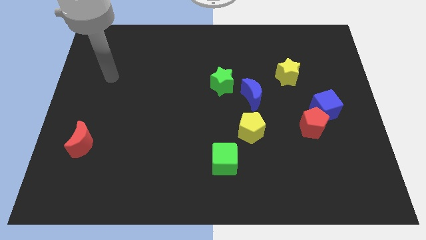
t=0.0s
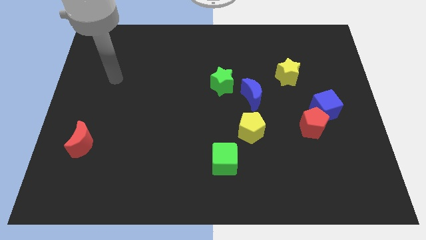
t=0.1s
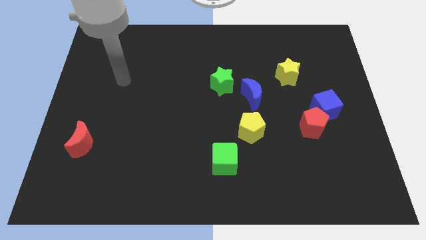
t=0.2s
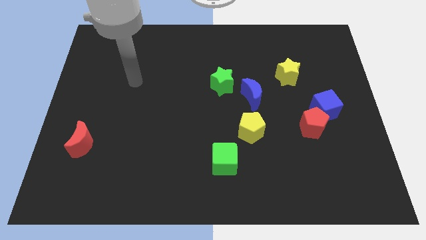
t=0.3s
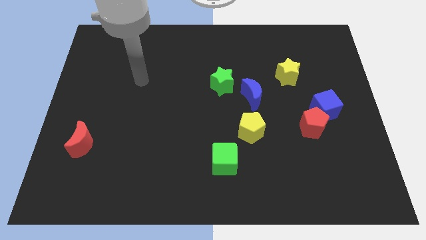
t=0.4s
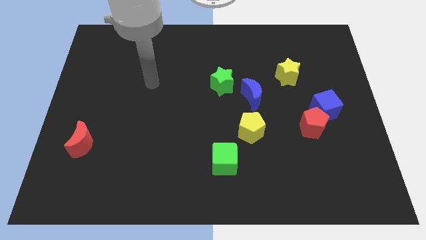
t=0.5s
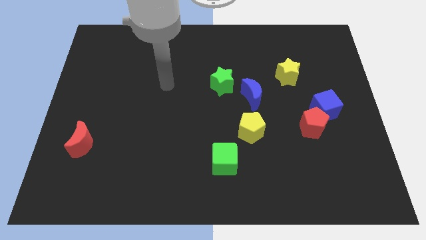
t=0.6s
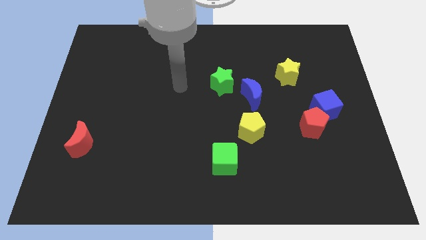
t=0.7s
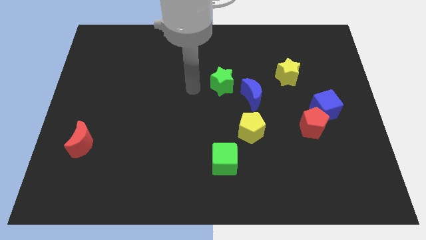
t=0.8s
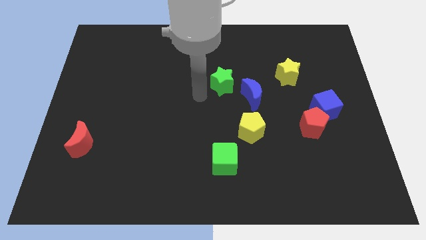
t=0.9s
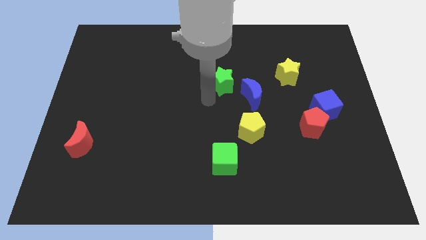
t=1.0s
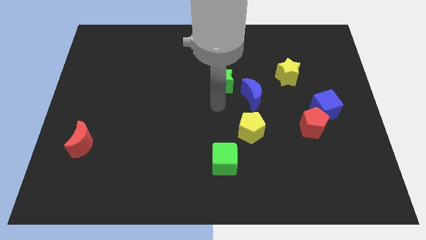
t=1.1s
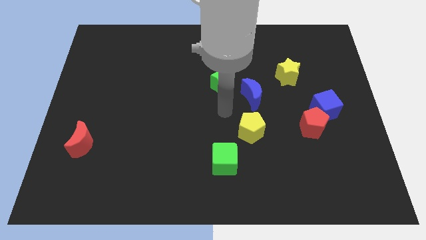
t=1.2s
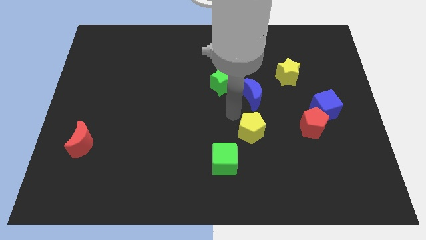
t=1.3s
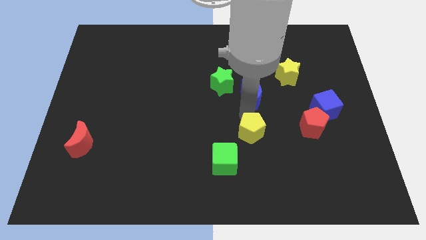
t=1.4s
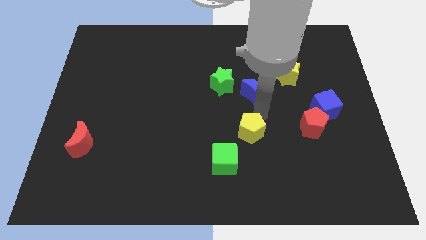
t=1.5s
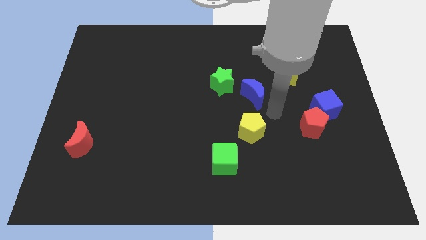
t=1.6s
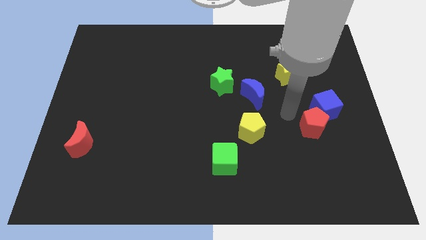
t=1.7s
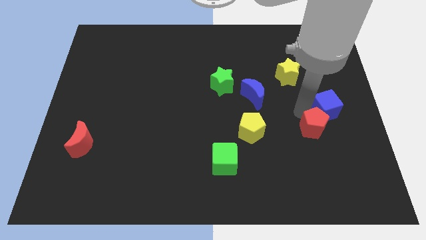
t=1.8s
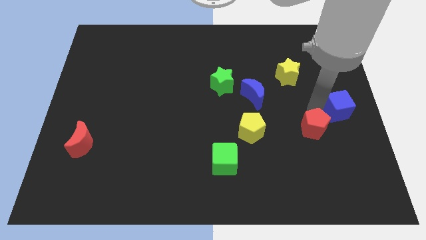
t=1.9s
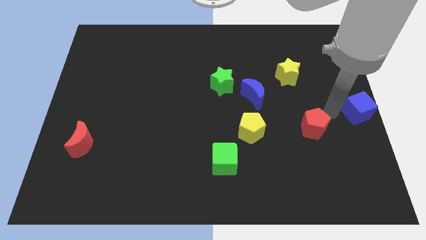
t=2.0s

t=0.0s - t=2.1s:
separate the red pentagon from the blue cube

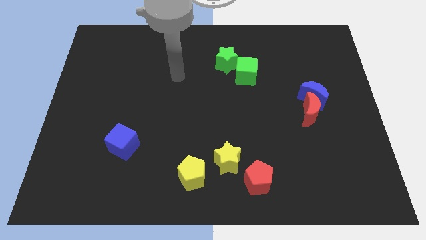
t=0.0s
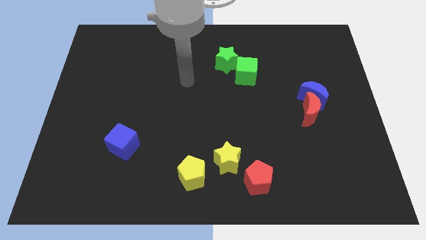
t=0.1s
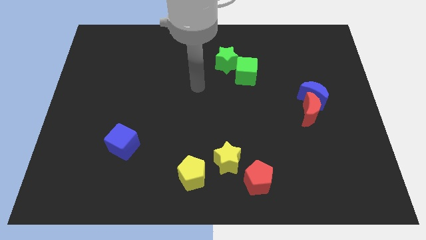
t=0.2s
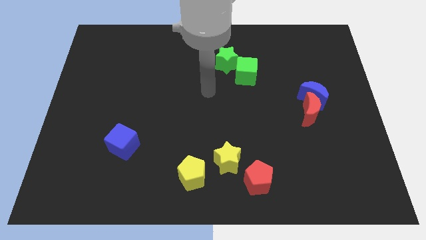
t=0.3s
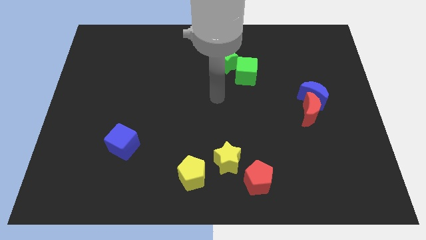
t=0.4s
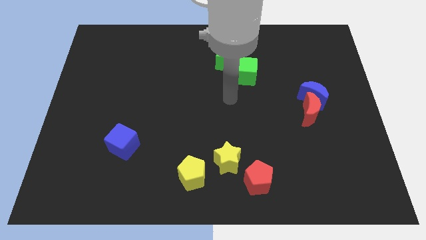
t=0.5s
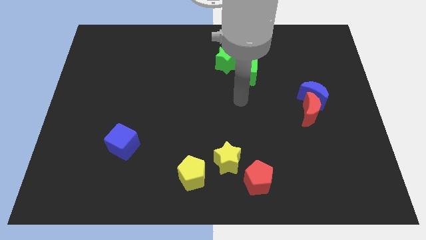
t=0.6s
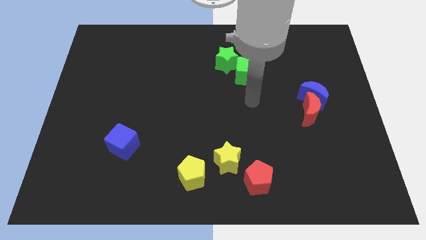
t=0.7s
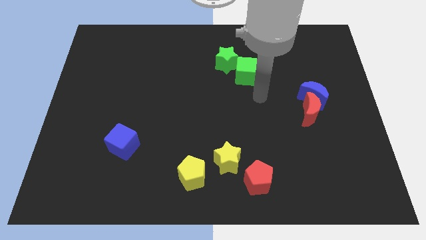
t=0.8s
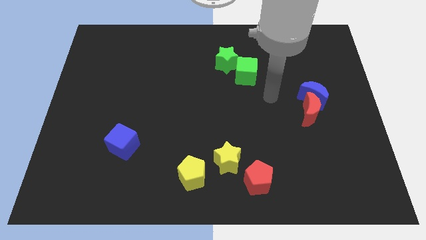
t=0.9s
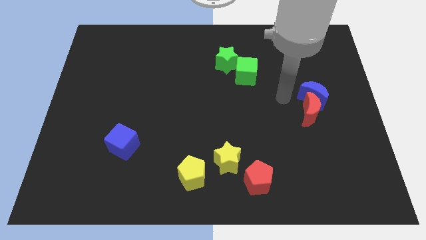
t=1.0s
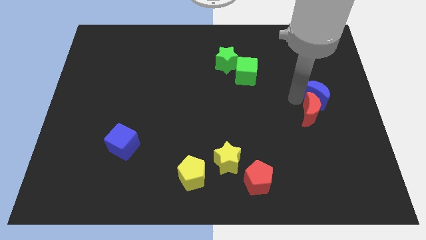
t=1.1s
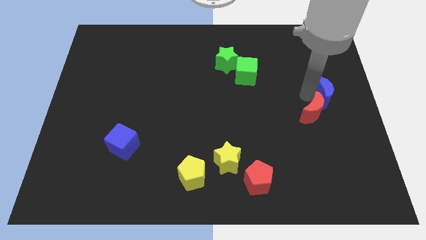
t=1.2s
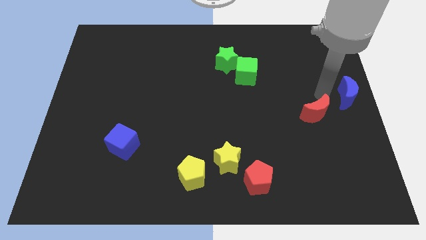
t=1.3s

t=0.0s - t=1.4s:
move the red moon away from the blue moon

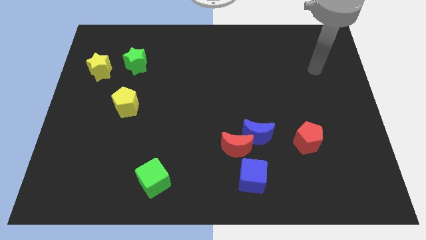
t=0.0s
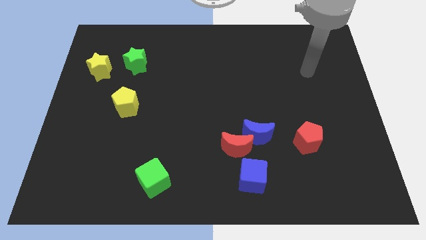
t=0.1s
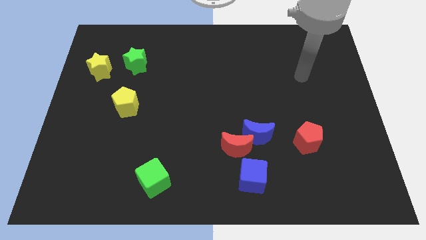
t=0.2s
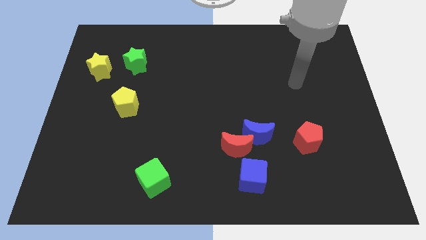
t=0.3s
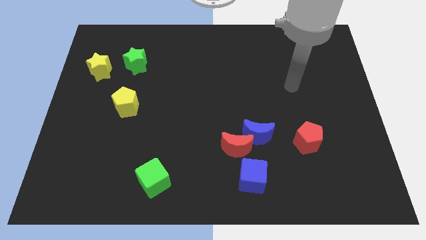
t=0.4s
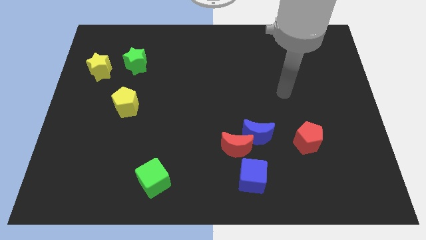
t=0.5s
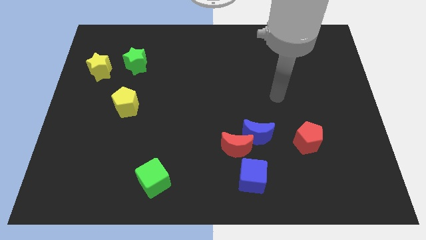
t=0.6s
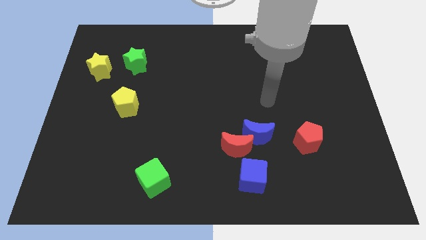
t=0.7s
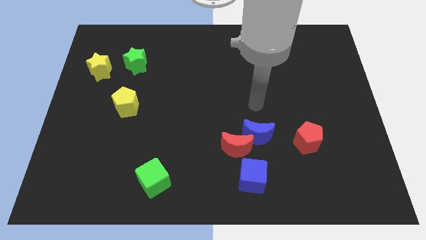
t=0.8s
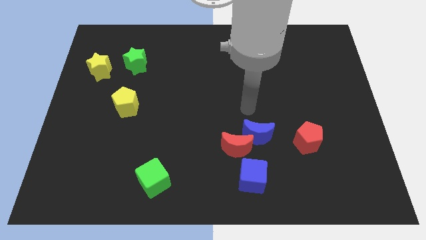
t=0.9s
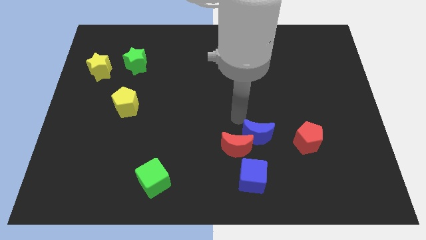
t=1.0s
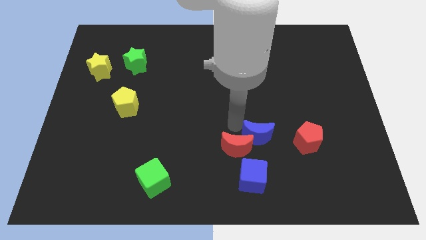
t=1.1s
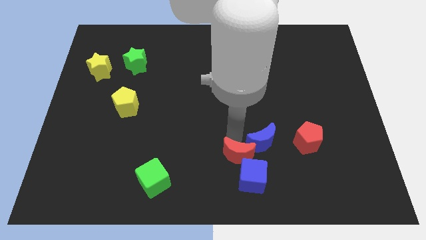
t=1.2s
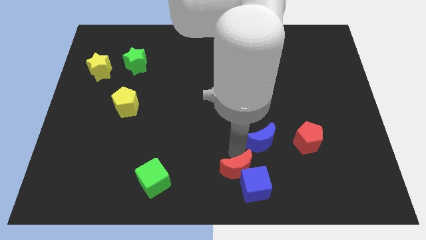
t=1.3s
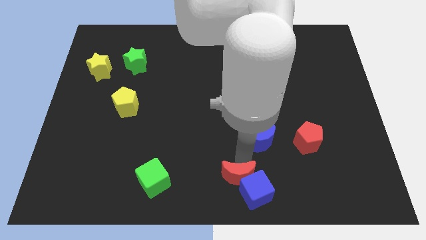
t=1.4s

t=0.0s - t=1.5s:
separate the blue moon from the red moon

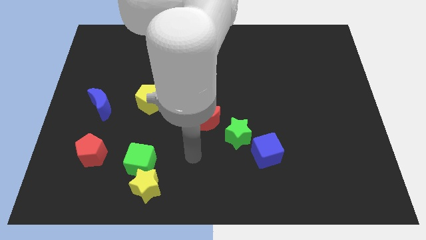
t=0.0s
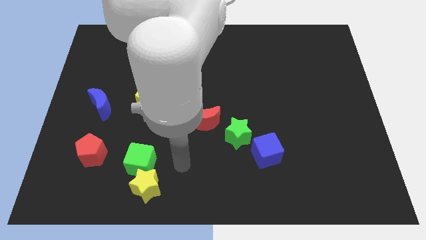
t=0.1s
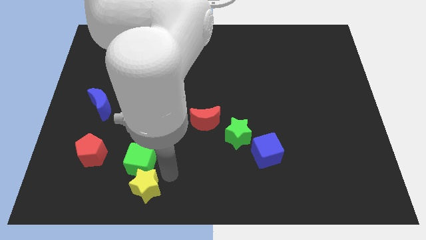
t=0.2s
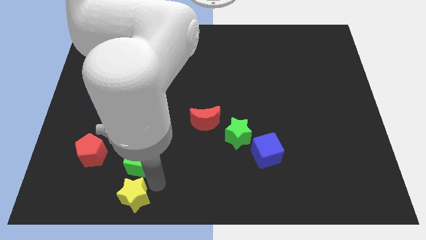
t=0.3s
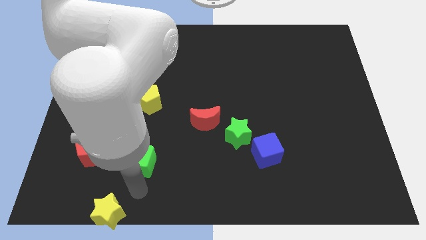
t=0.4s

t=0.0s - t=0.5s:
separate the green cube from the yellow star

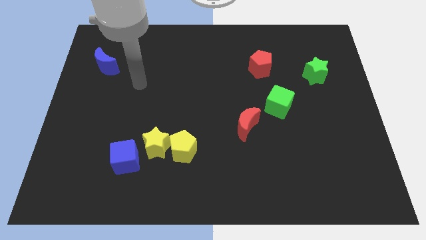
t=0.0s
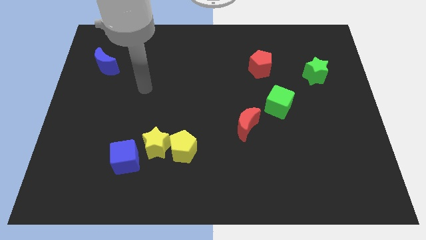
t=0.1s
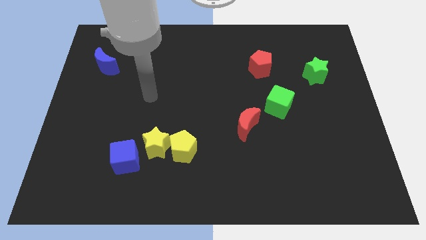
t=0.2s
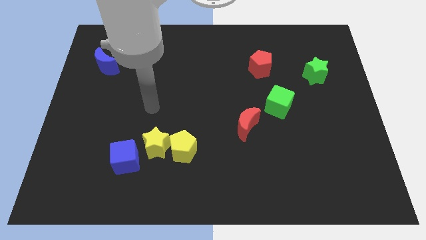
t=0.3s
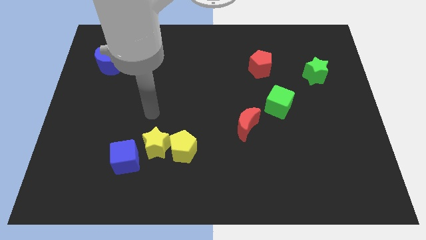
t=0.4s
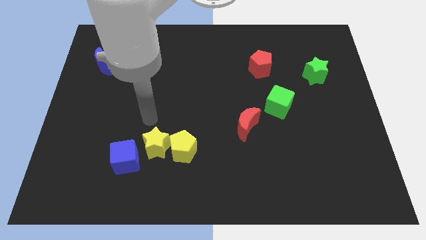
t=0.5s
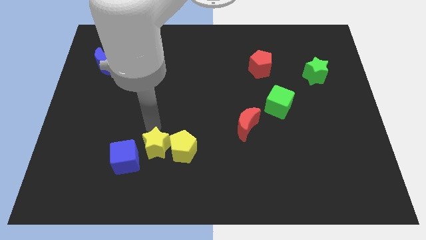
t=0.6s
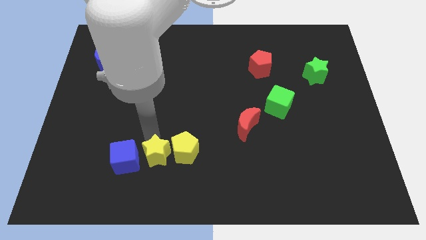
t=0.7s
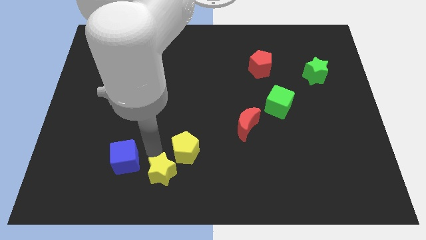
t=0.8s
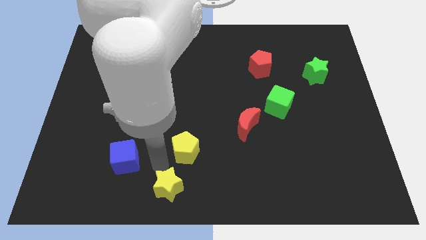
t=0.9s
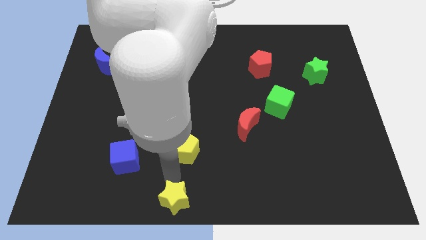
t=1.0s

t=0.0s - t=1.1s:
pull the yellow pentagon apart from the yellow star

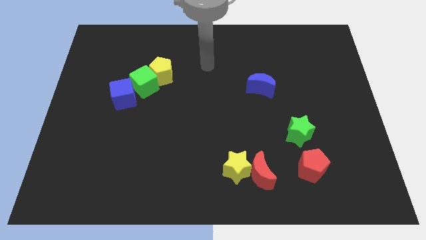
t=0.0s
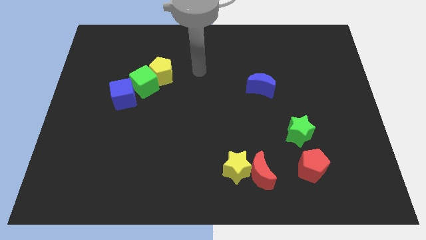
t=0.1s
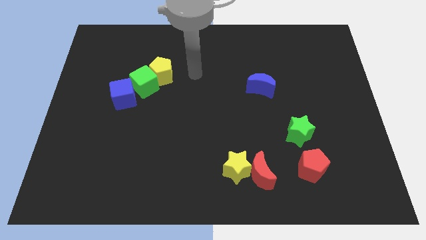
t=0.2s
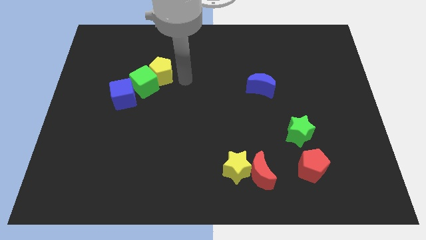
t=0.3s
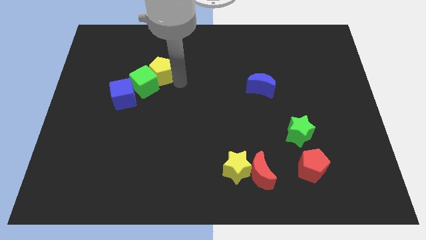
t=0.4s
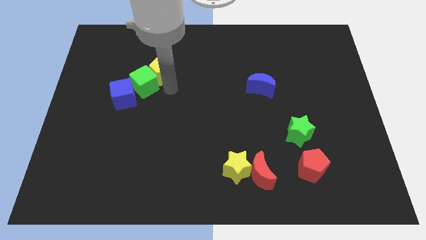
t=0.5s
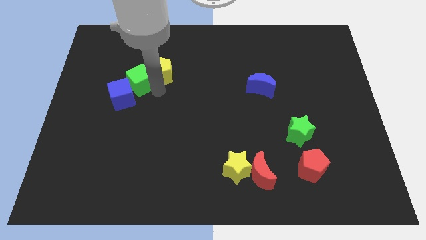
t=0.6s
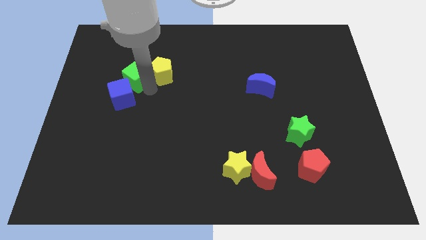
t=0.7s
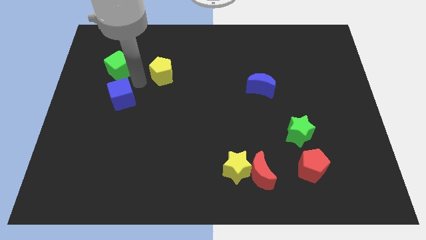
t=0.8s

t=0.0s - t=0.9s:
pull the yellow pentagon apart from the green cube

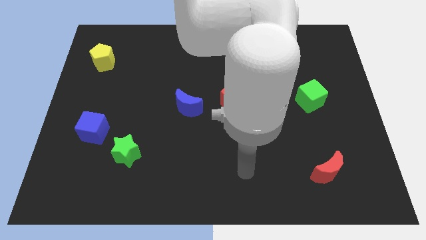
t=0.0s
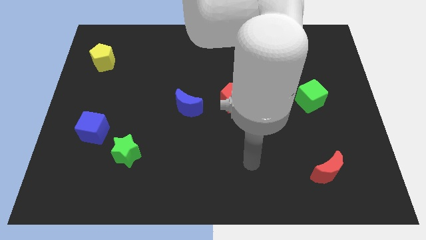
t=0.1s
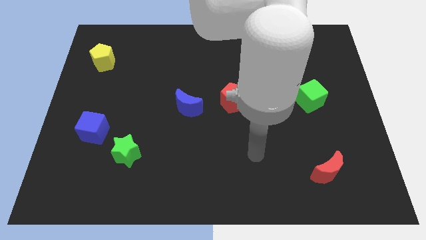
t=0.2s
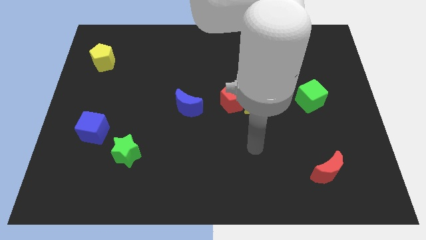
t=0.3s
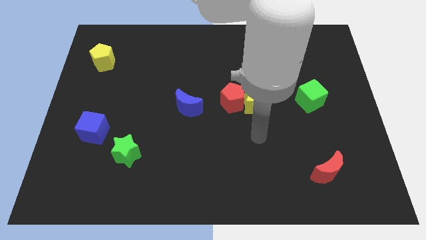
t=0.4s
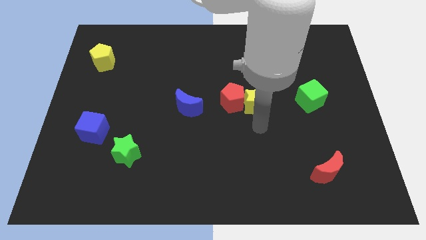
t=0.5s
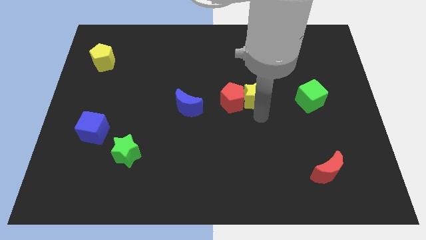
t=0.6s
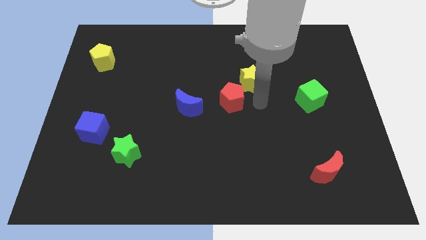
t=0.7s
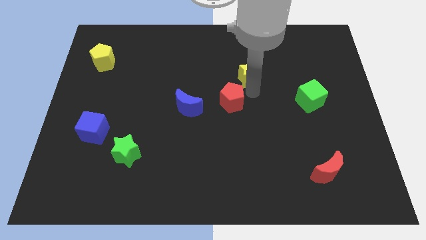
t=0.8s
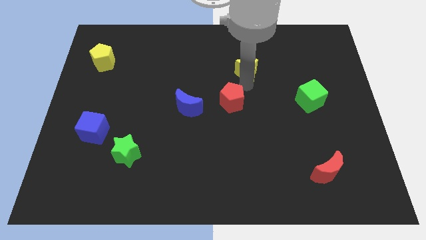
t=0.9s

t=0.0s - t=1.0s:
separate the red pentagon from the yellow star

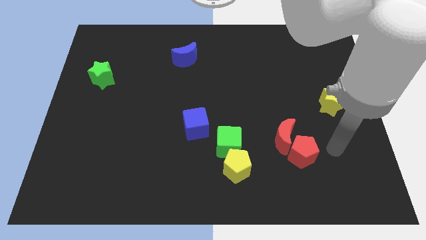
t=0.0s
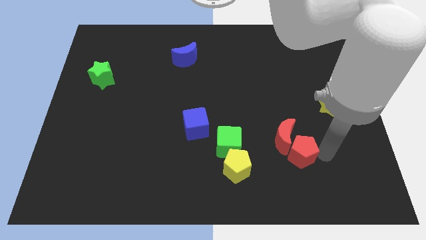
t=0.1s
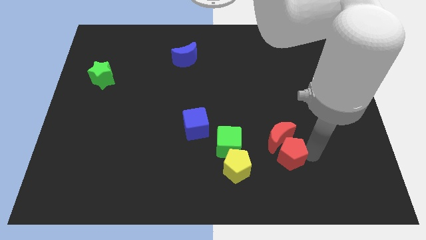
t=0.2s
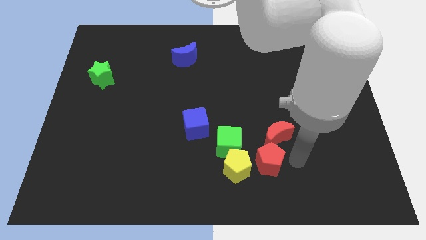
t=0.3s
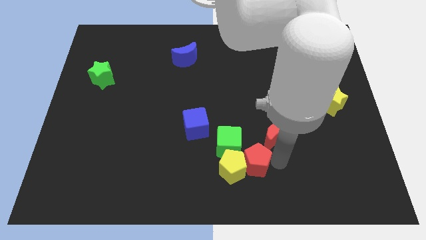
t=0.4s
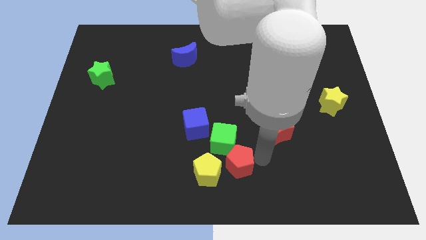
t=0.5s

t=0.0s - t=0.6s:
separate the red moon from the red pentagon

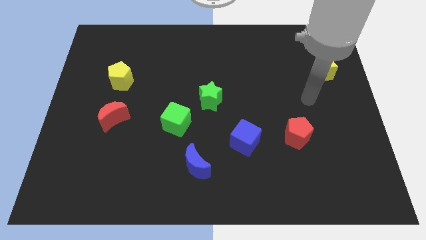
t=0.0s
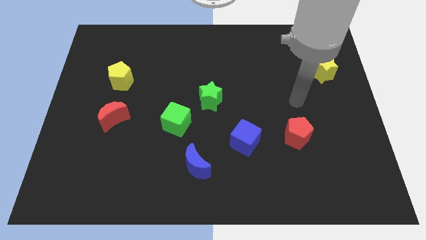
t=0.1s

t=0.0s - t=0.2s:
move the green cube away from the green star
